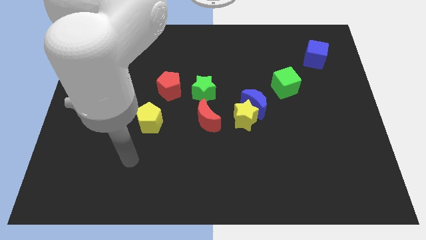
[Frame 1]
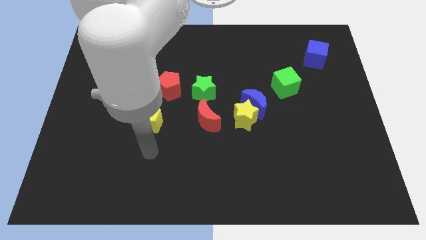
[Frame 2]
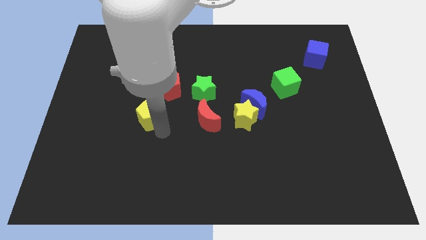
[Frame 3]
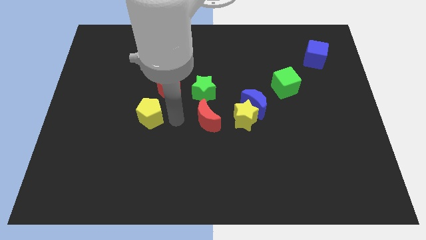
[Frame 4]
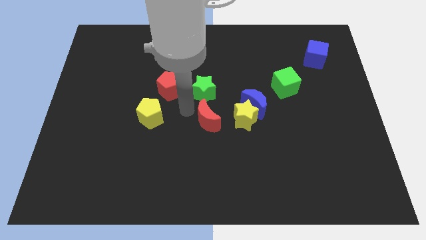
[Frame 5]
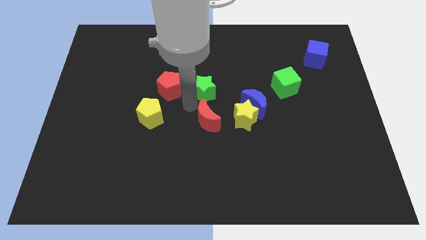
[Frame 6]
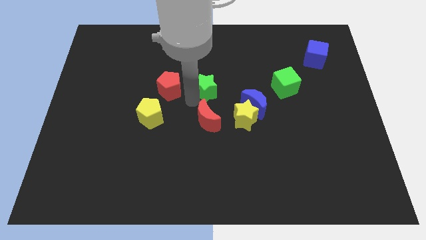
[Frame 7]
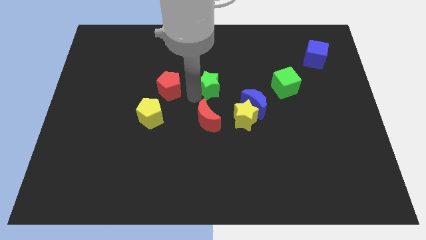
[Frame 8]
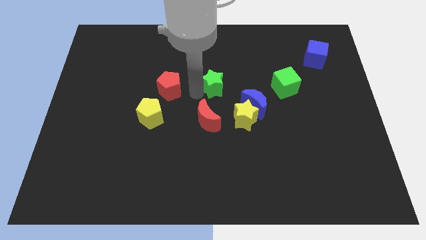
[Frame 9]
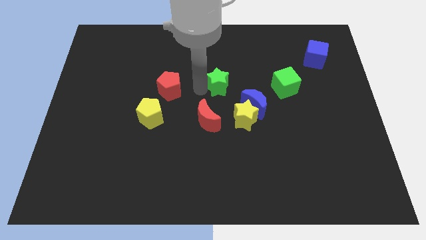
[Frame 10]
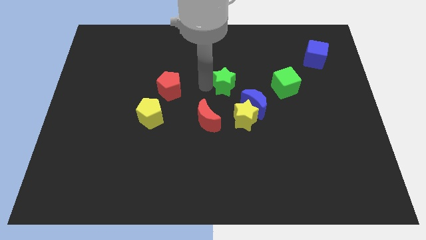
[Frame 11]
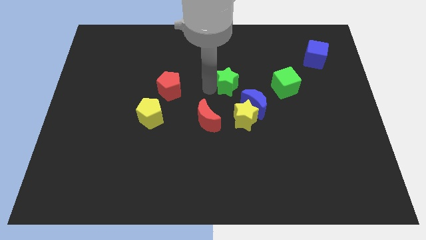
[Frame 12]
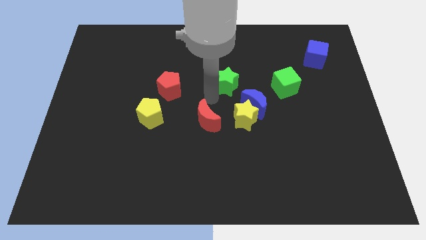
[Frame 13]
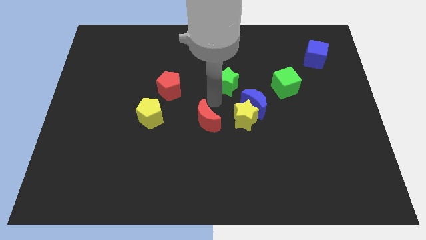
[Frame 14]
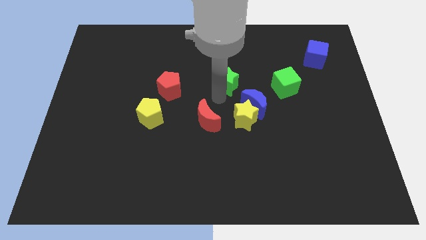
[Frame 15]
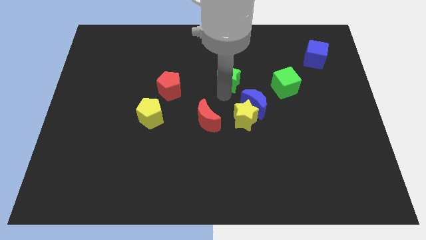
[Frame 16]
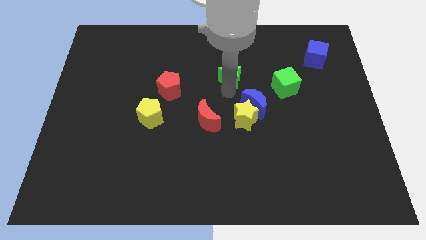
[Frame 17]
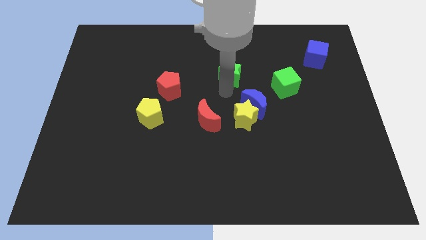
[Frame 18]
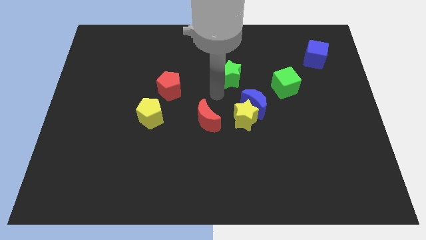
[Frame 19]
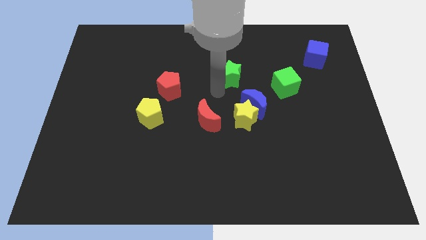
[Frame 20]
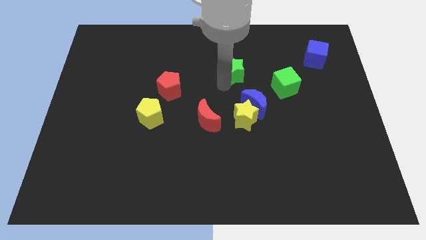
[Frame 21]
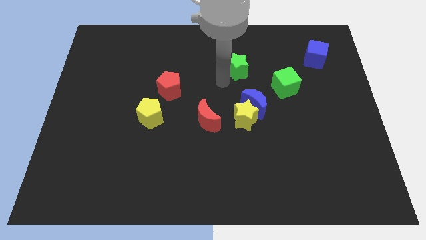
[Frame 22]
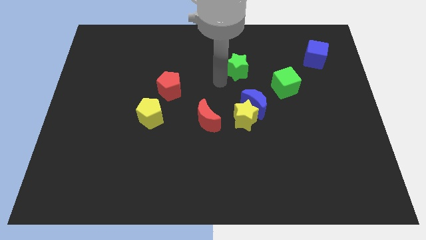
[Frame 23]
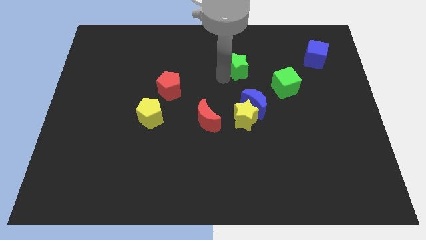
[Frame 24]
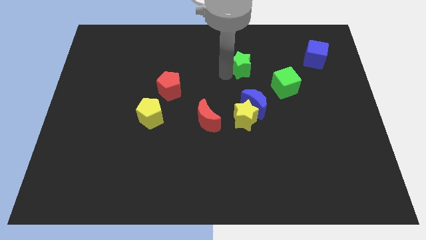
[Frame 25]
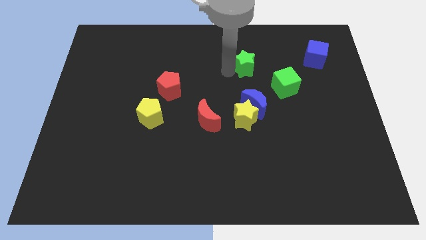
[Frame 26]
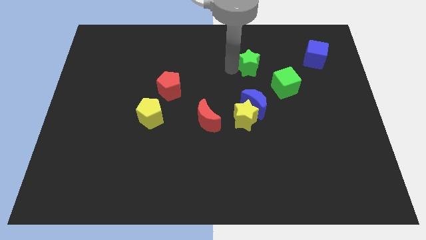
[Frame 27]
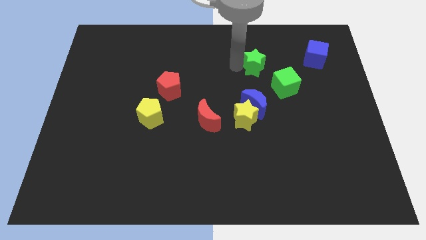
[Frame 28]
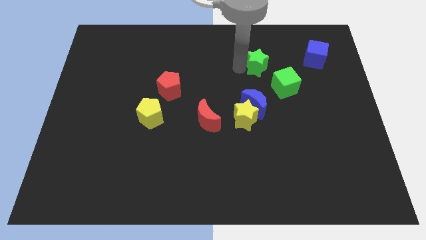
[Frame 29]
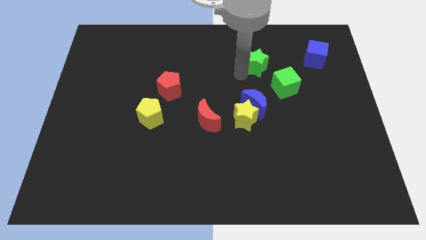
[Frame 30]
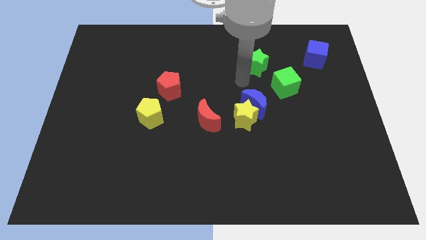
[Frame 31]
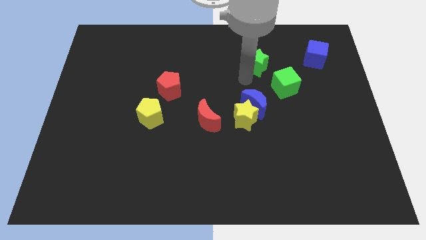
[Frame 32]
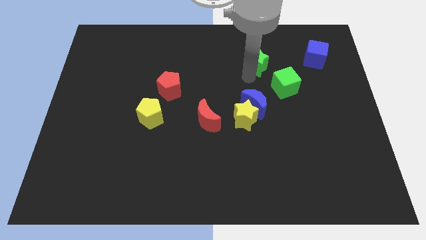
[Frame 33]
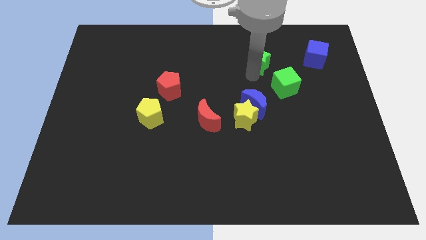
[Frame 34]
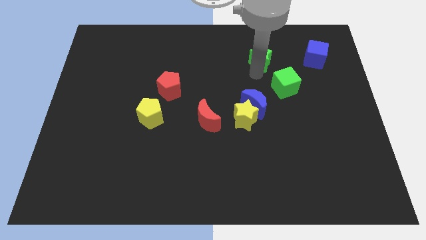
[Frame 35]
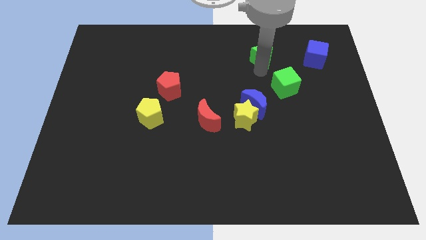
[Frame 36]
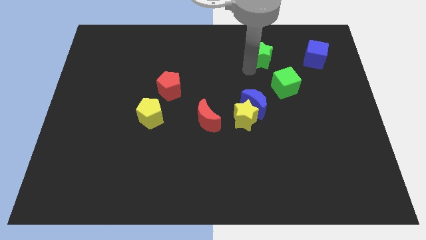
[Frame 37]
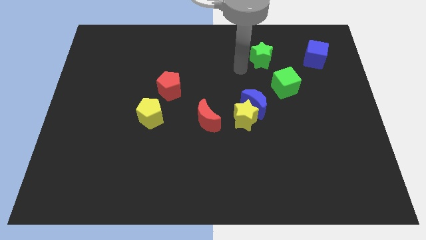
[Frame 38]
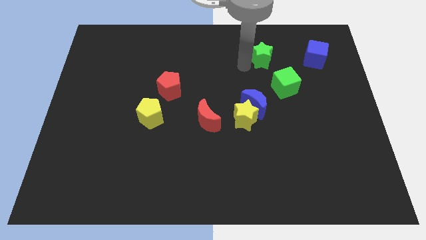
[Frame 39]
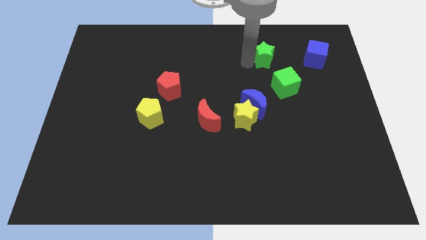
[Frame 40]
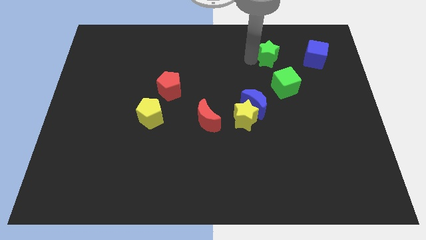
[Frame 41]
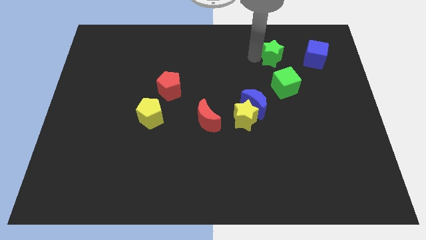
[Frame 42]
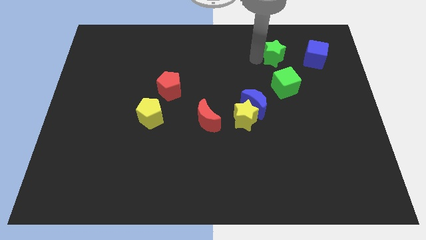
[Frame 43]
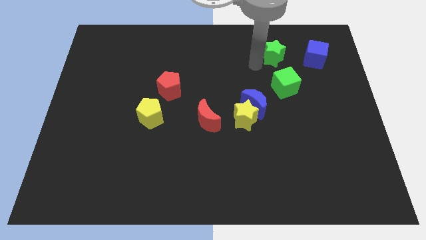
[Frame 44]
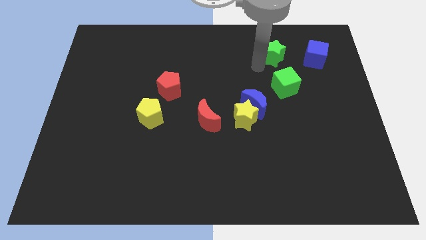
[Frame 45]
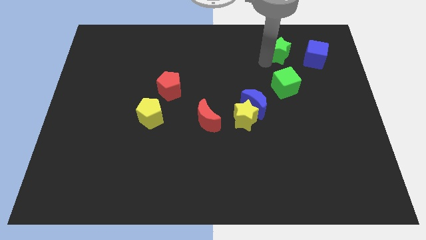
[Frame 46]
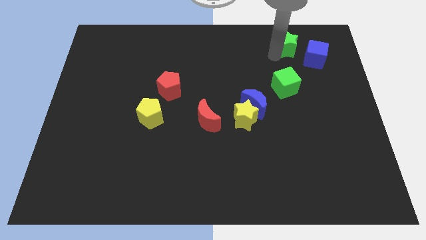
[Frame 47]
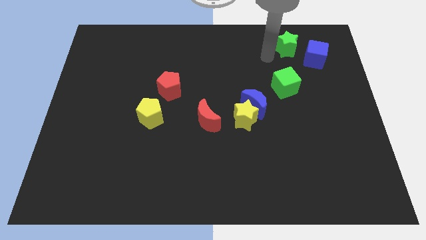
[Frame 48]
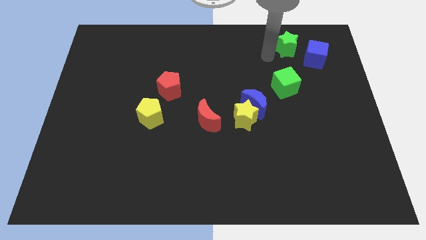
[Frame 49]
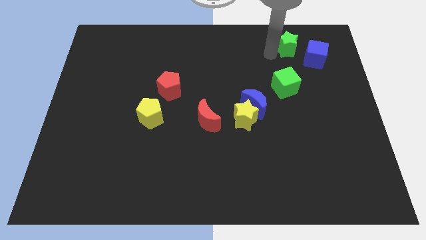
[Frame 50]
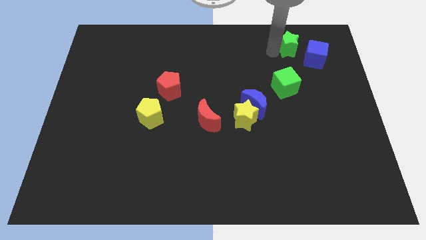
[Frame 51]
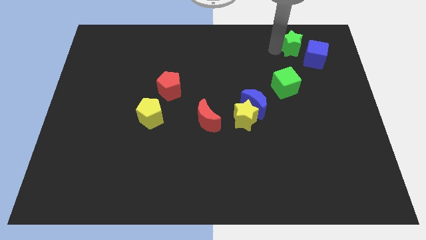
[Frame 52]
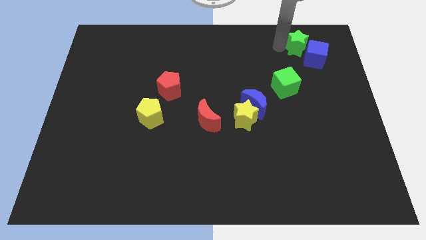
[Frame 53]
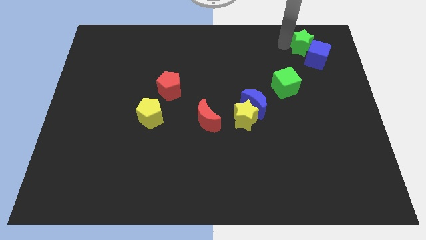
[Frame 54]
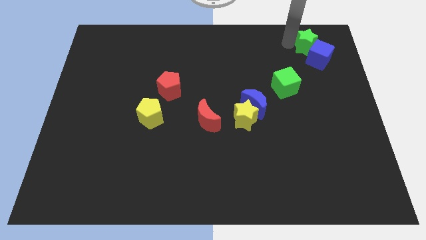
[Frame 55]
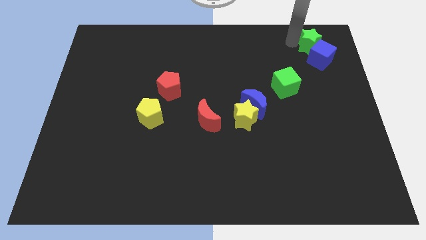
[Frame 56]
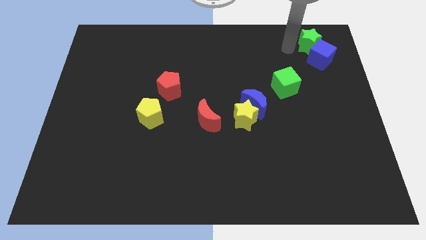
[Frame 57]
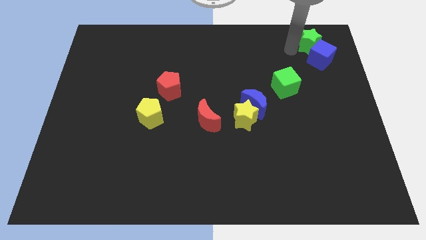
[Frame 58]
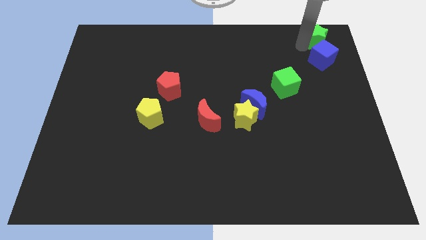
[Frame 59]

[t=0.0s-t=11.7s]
put the green star to the top right

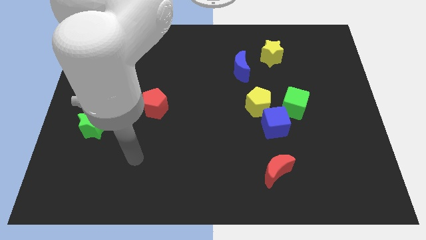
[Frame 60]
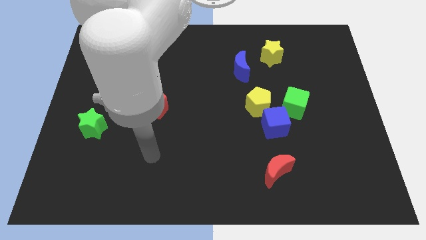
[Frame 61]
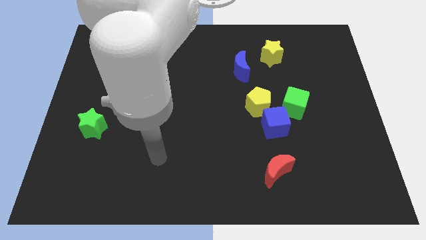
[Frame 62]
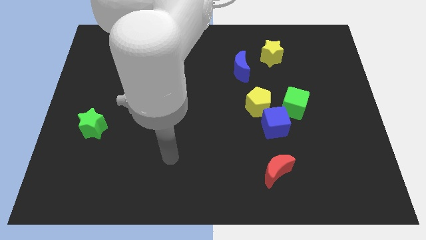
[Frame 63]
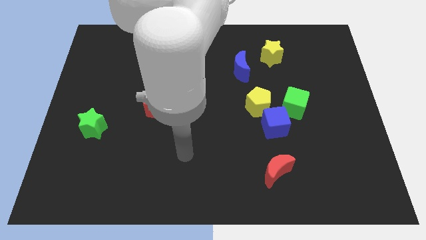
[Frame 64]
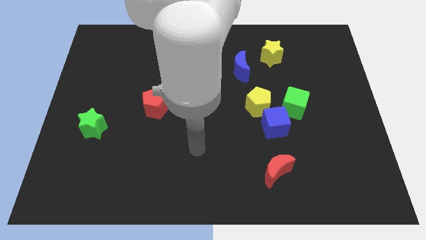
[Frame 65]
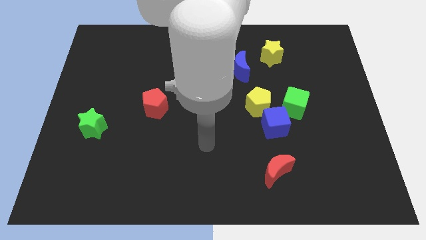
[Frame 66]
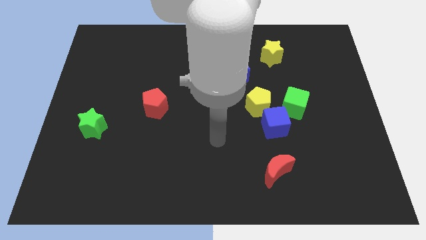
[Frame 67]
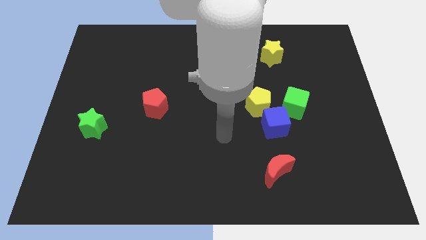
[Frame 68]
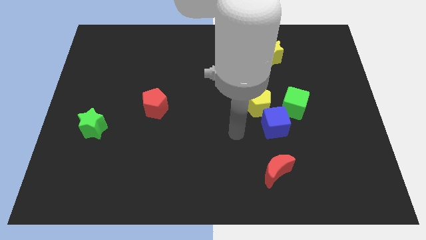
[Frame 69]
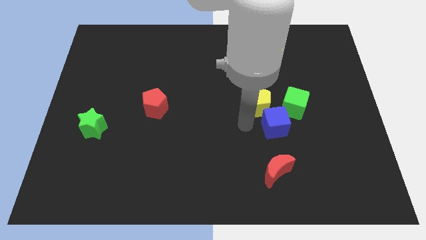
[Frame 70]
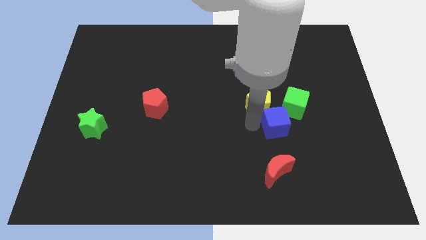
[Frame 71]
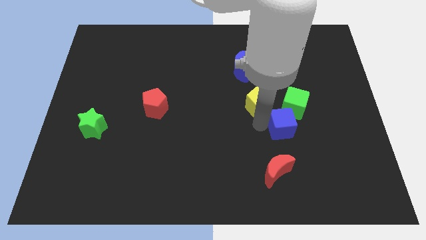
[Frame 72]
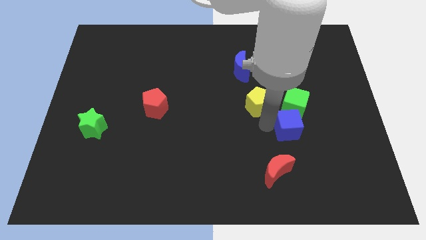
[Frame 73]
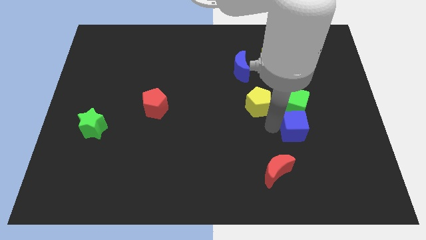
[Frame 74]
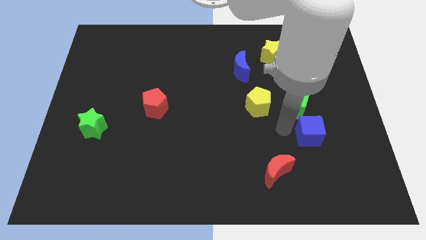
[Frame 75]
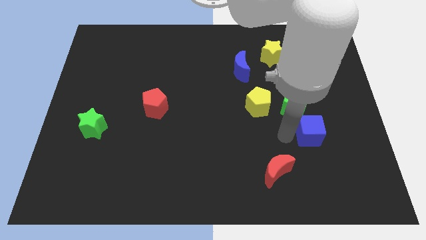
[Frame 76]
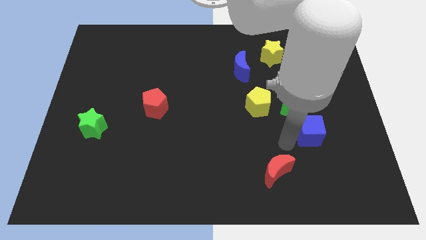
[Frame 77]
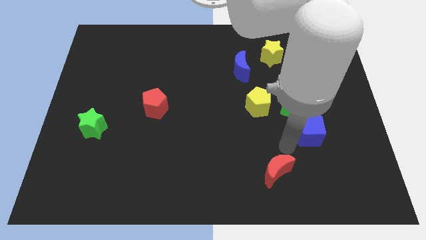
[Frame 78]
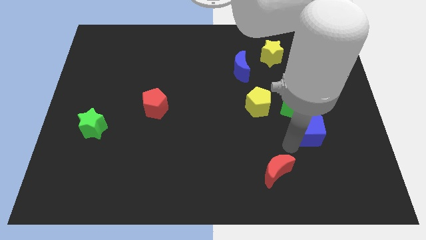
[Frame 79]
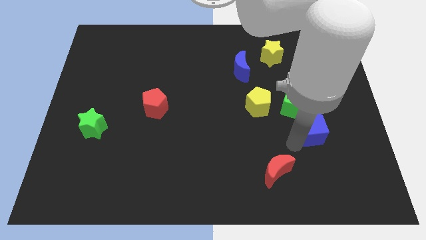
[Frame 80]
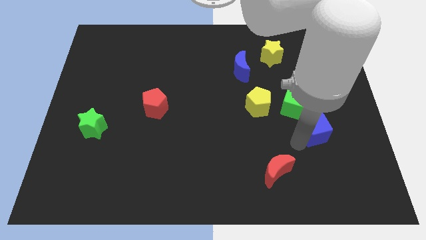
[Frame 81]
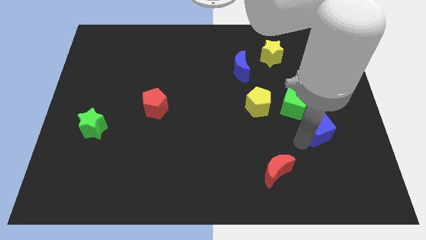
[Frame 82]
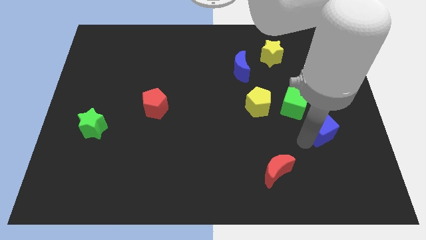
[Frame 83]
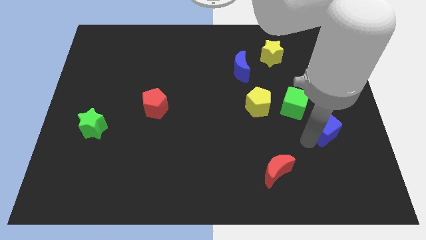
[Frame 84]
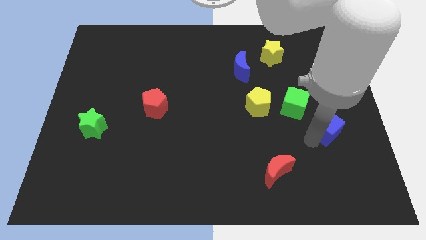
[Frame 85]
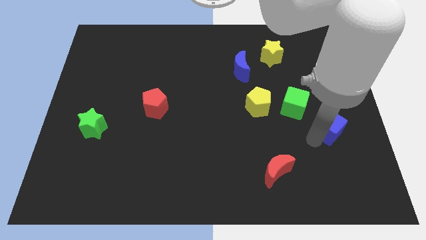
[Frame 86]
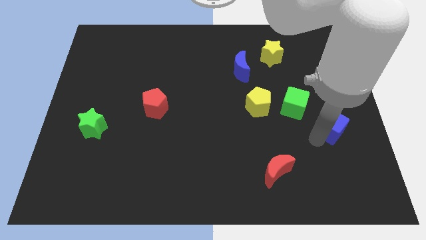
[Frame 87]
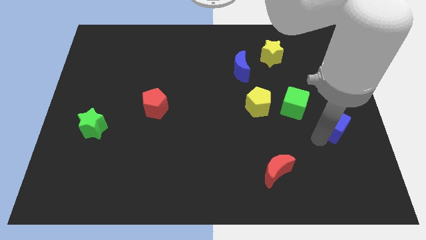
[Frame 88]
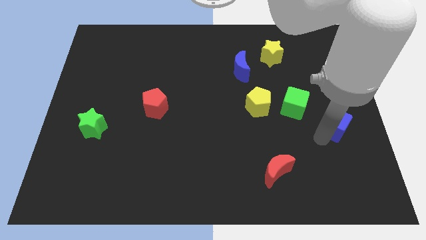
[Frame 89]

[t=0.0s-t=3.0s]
move the blue cube to the center right
